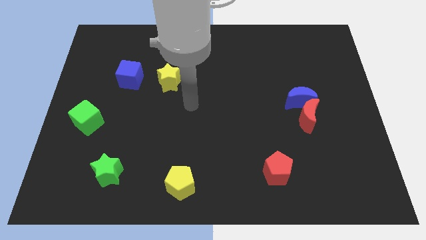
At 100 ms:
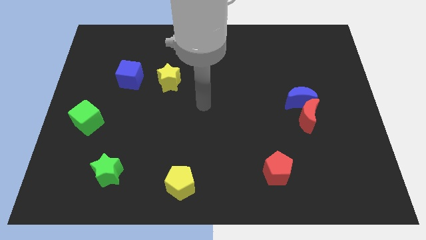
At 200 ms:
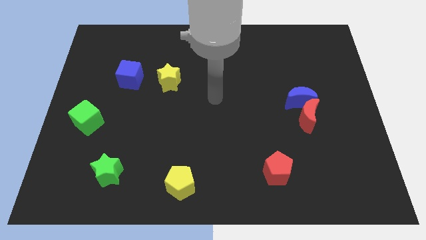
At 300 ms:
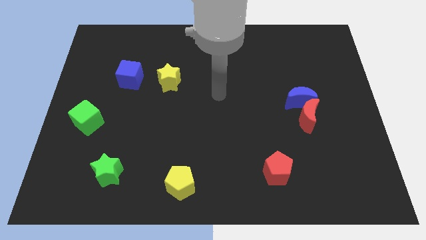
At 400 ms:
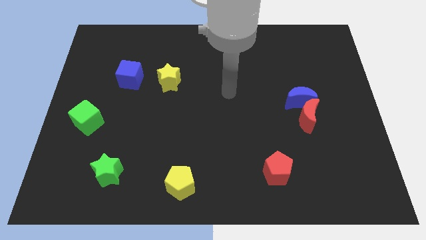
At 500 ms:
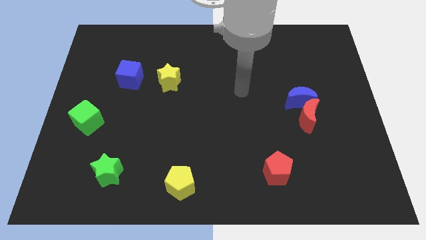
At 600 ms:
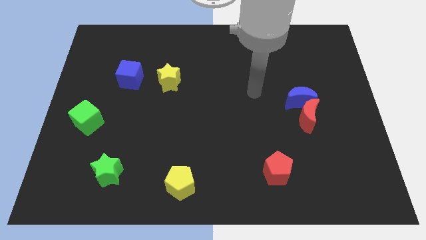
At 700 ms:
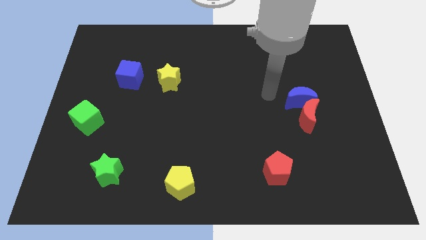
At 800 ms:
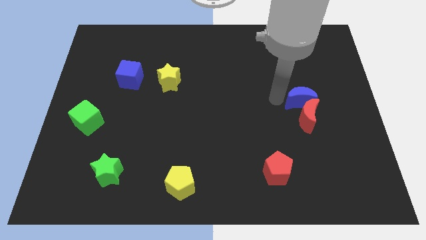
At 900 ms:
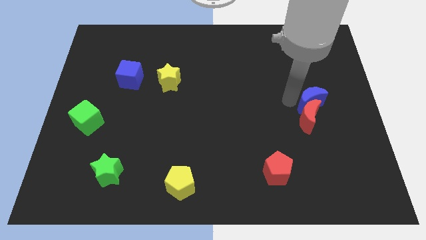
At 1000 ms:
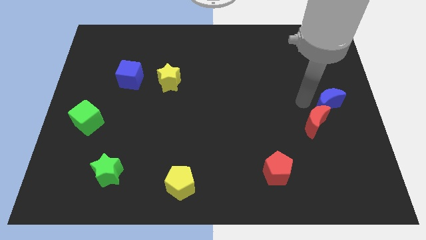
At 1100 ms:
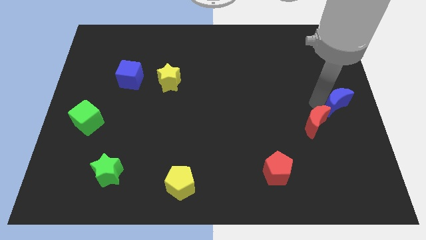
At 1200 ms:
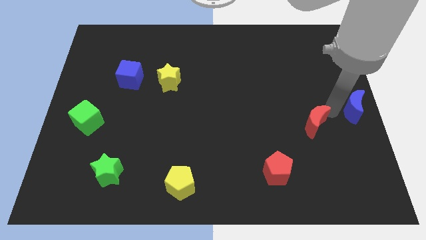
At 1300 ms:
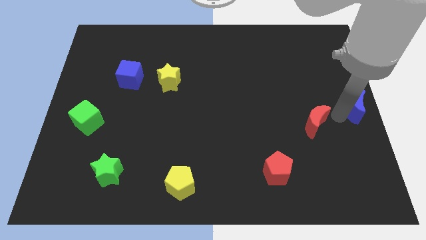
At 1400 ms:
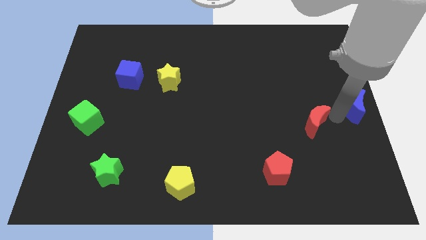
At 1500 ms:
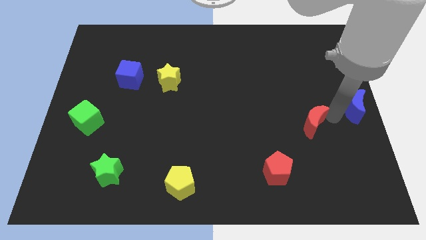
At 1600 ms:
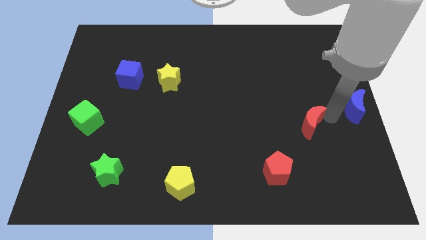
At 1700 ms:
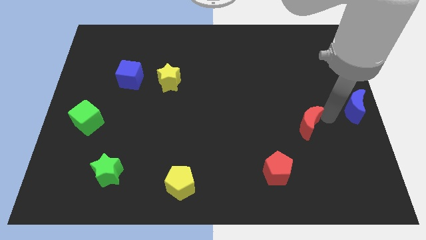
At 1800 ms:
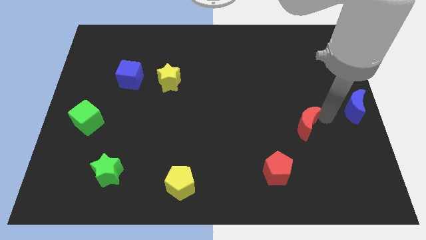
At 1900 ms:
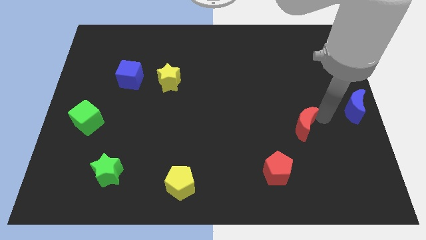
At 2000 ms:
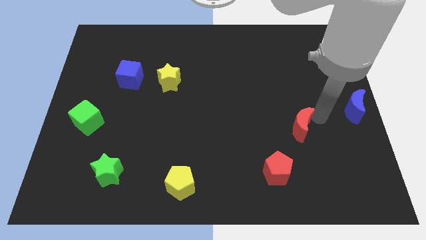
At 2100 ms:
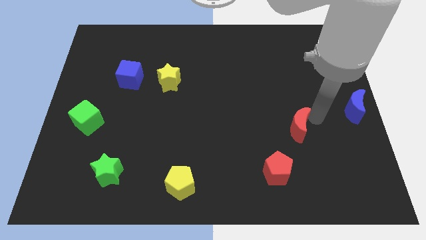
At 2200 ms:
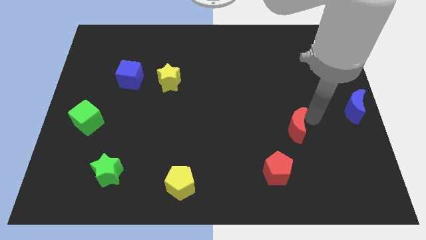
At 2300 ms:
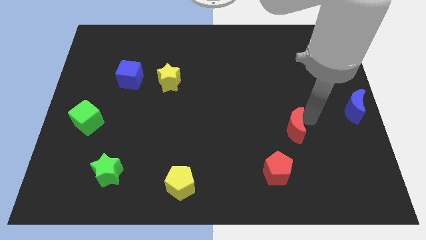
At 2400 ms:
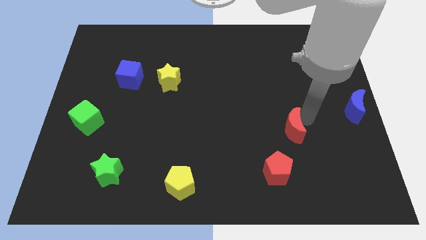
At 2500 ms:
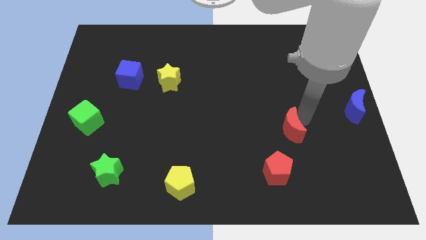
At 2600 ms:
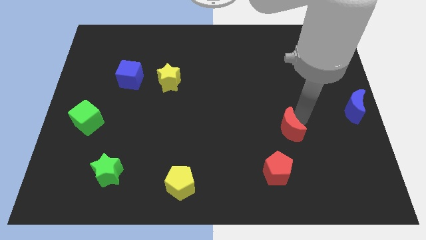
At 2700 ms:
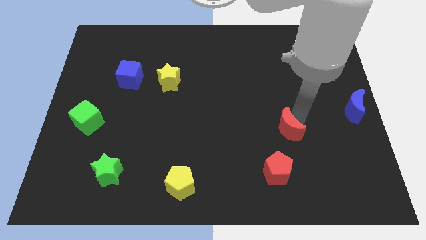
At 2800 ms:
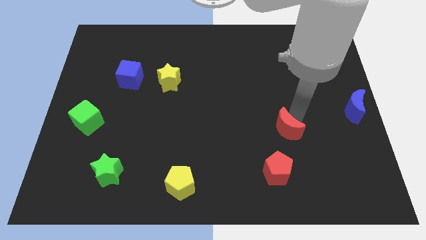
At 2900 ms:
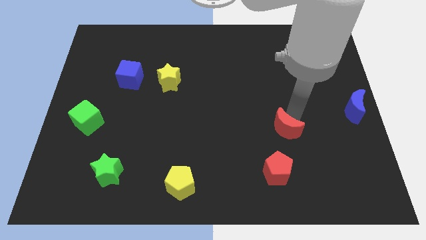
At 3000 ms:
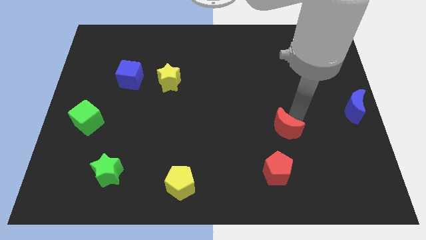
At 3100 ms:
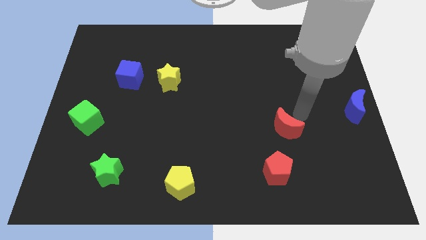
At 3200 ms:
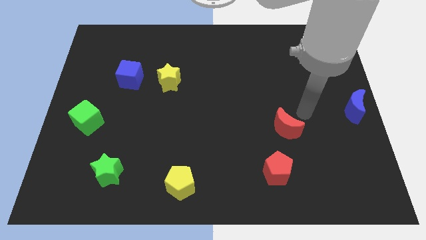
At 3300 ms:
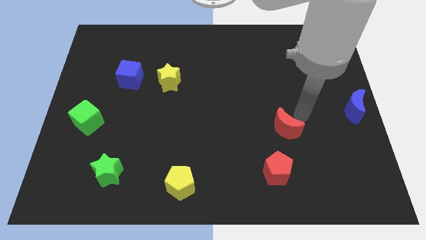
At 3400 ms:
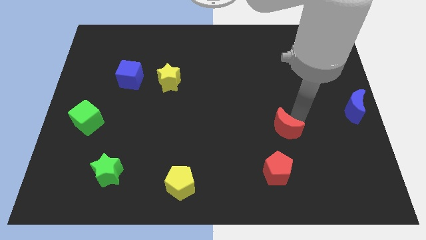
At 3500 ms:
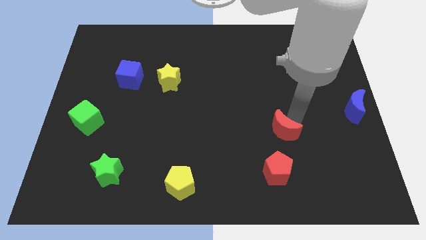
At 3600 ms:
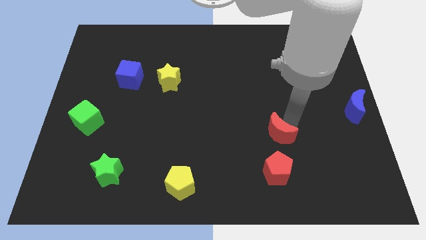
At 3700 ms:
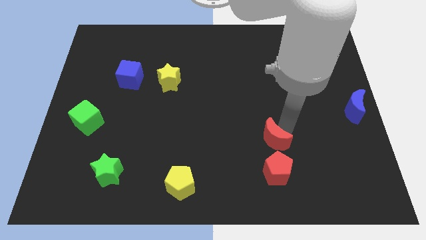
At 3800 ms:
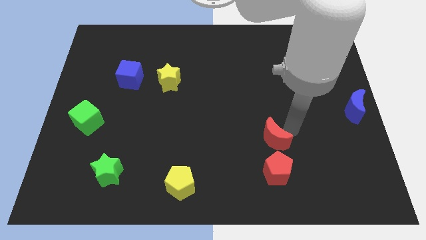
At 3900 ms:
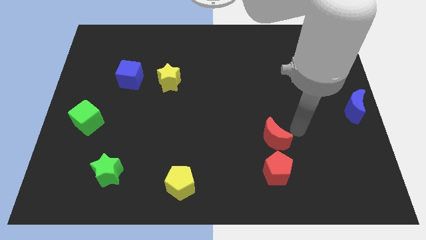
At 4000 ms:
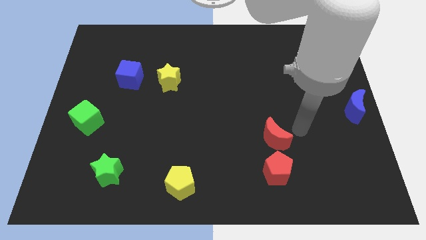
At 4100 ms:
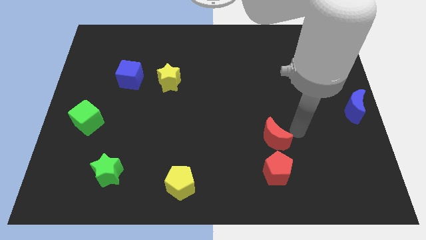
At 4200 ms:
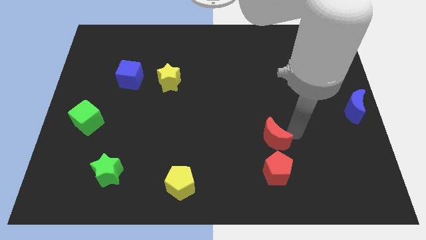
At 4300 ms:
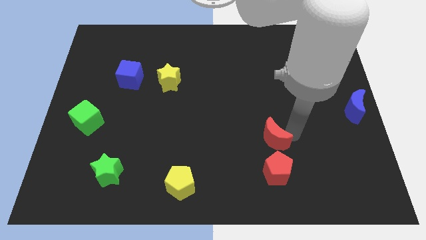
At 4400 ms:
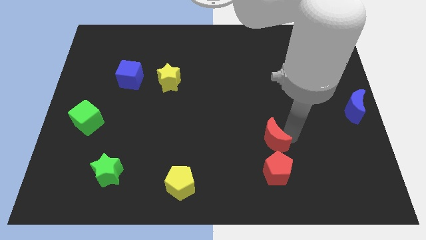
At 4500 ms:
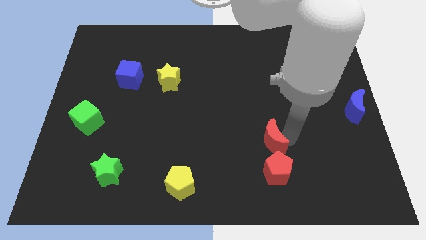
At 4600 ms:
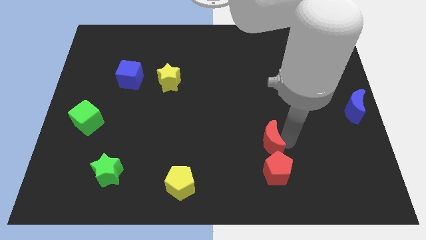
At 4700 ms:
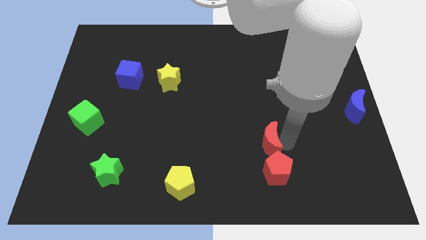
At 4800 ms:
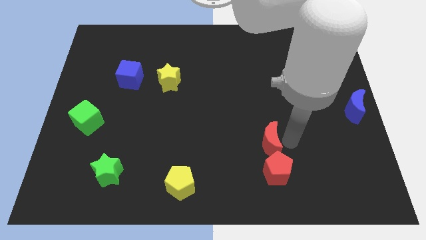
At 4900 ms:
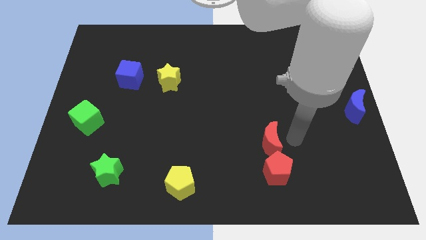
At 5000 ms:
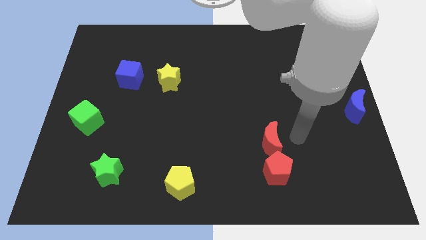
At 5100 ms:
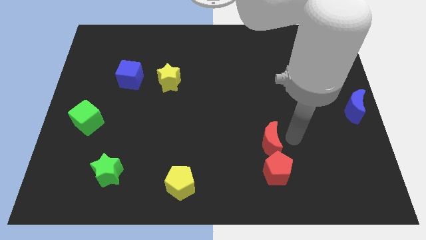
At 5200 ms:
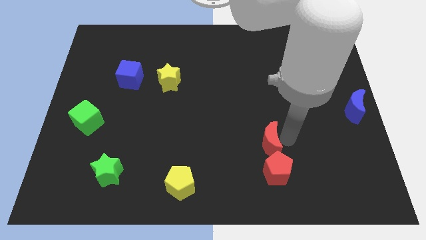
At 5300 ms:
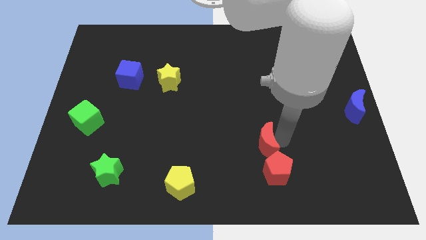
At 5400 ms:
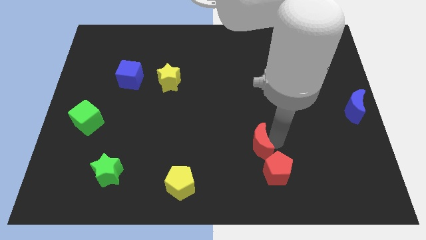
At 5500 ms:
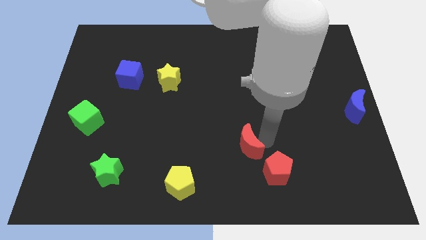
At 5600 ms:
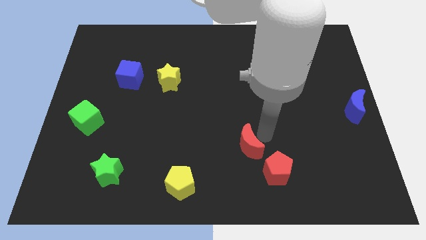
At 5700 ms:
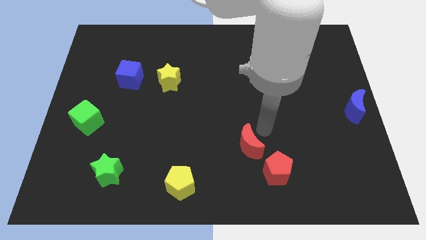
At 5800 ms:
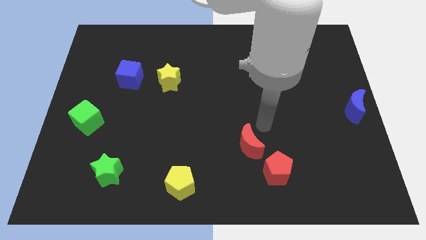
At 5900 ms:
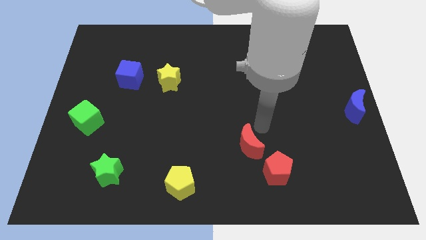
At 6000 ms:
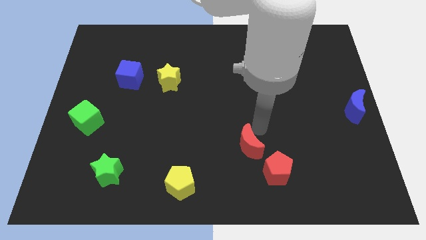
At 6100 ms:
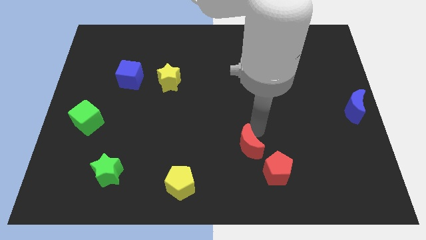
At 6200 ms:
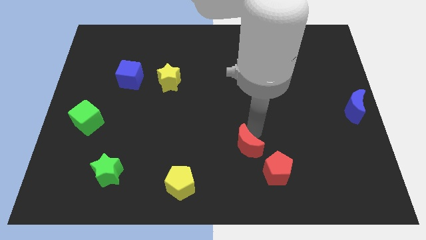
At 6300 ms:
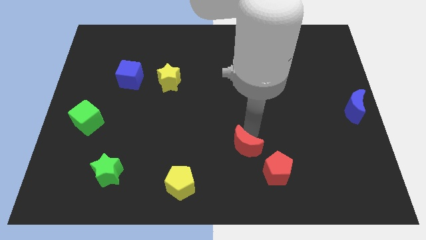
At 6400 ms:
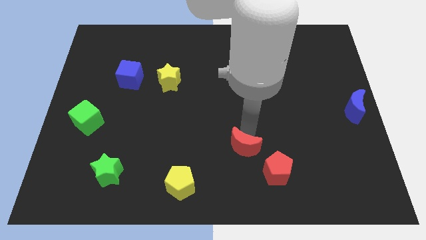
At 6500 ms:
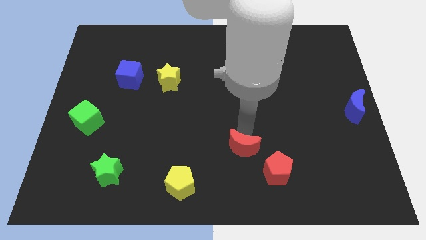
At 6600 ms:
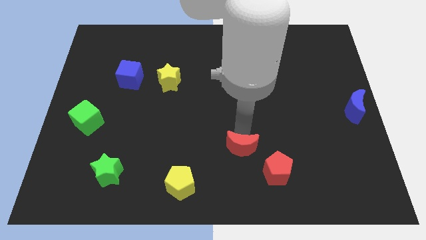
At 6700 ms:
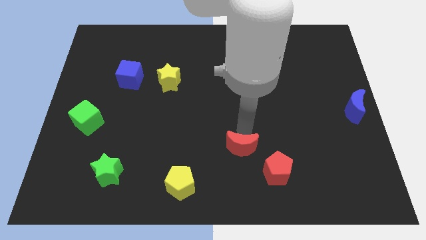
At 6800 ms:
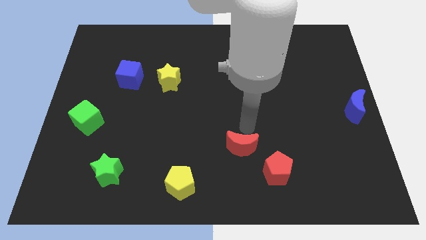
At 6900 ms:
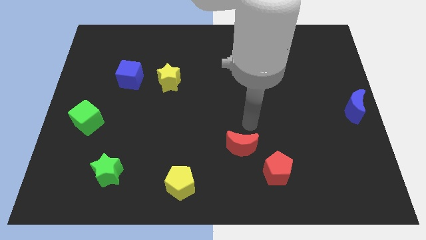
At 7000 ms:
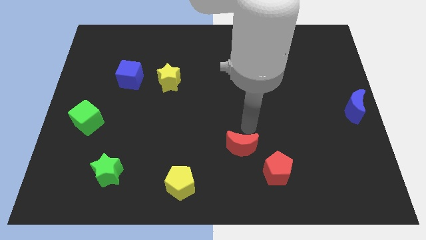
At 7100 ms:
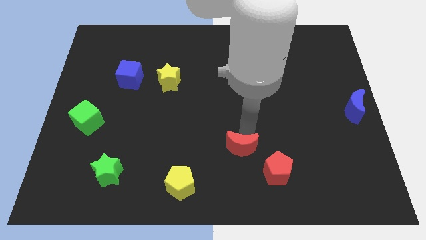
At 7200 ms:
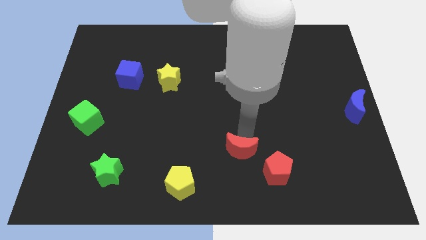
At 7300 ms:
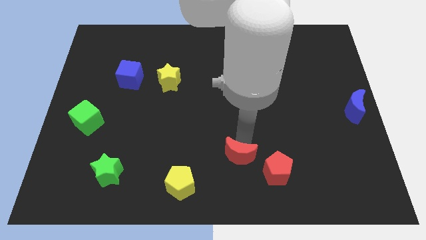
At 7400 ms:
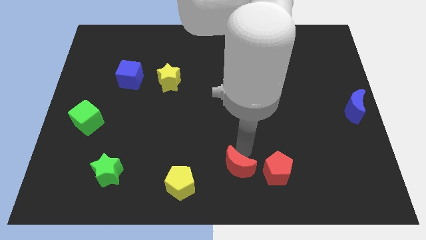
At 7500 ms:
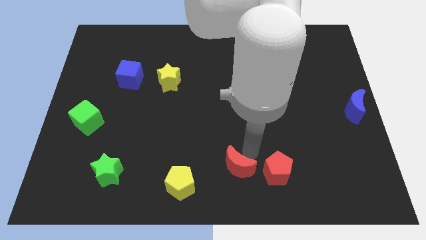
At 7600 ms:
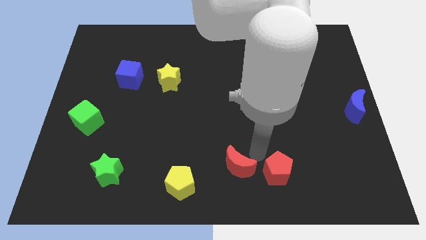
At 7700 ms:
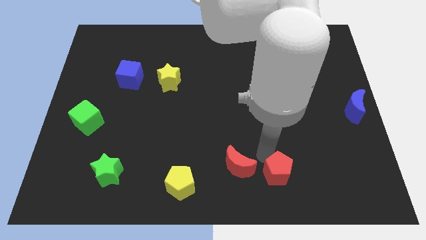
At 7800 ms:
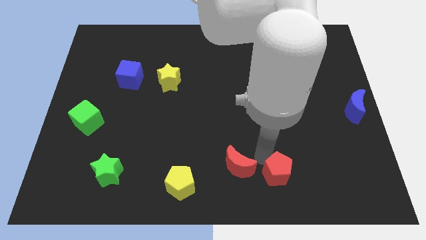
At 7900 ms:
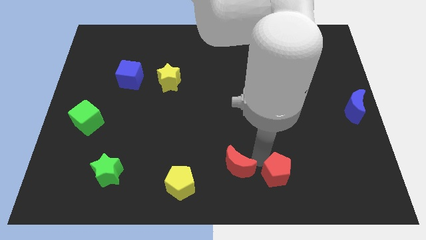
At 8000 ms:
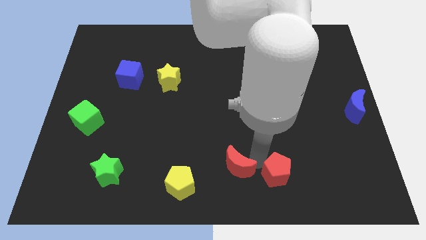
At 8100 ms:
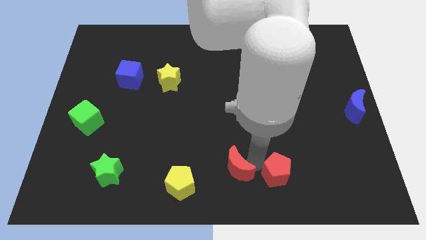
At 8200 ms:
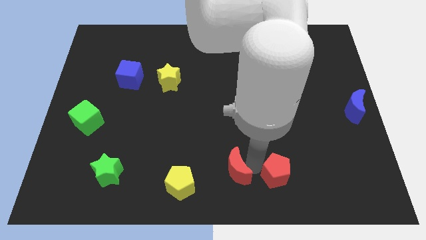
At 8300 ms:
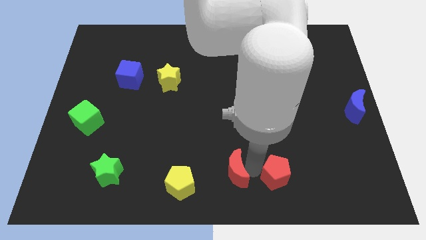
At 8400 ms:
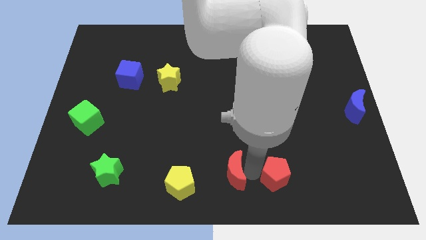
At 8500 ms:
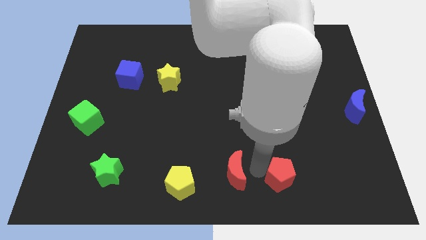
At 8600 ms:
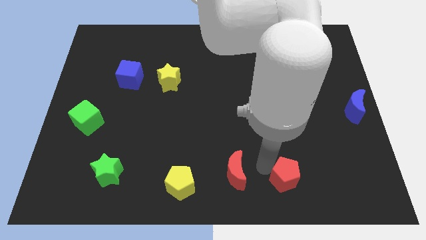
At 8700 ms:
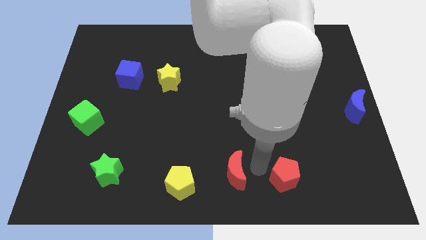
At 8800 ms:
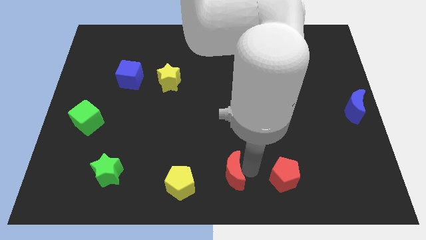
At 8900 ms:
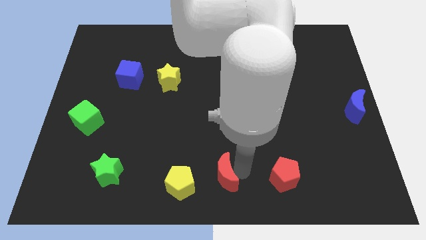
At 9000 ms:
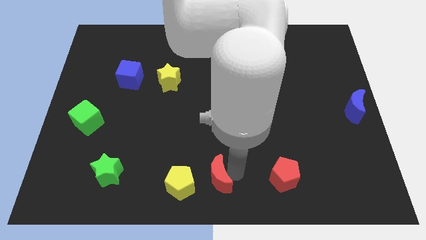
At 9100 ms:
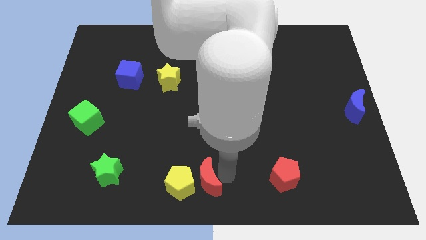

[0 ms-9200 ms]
move the red moon next to the yellow pentagon
